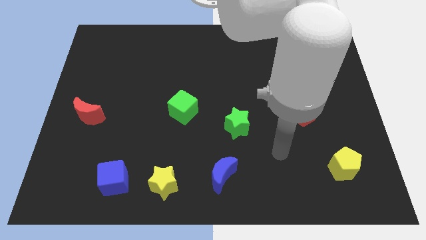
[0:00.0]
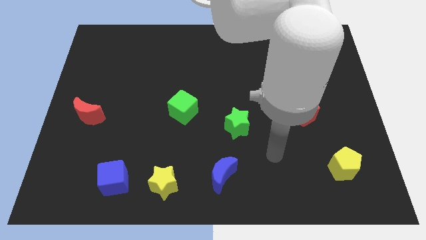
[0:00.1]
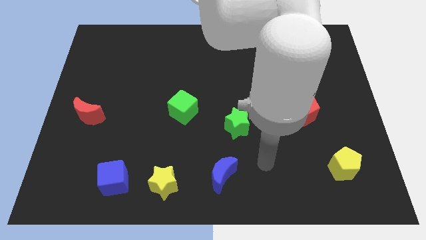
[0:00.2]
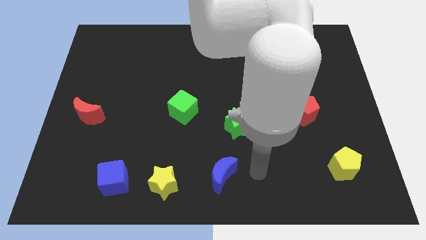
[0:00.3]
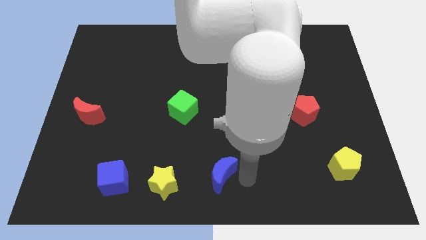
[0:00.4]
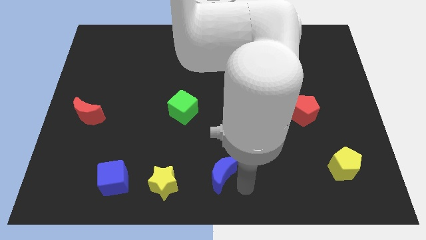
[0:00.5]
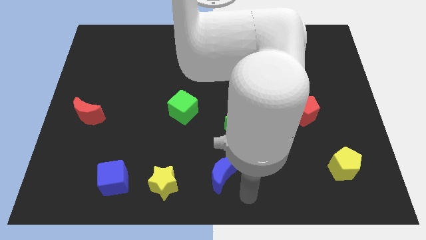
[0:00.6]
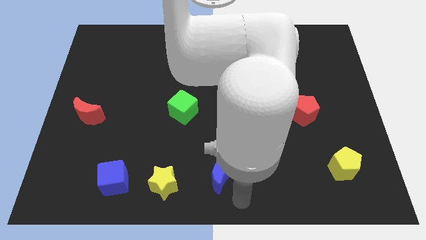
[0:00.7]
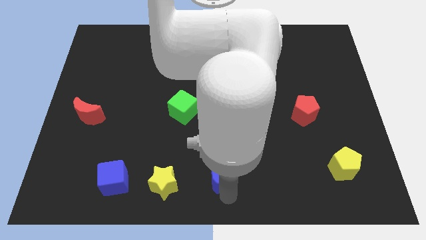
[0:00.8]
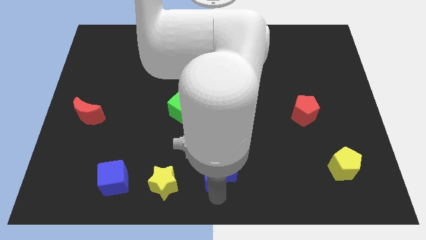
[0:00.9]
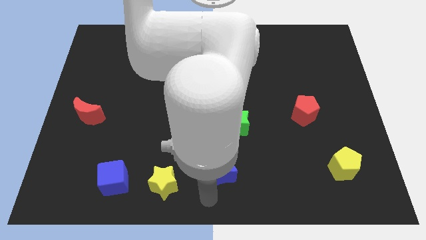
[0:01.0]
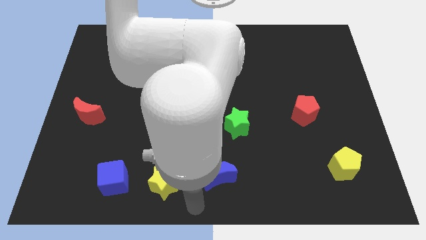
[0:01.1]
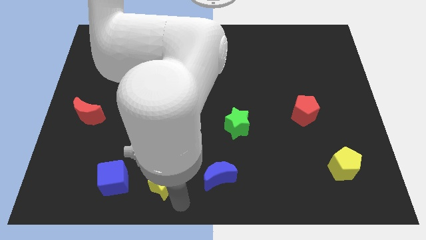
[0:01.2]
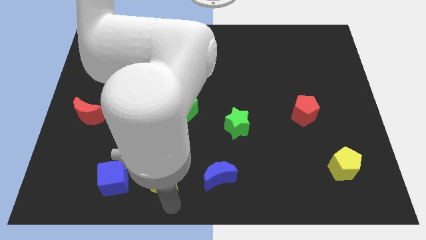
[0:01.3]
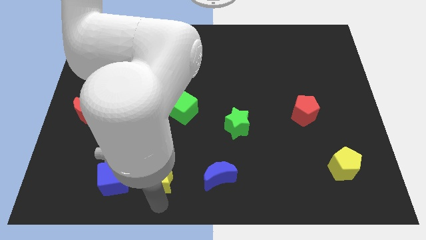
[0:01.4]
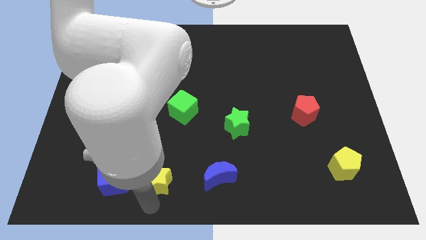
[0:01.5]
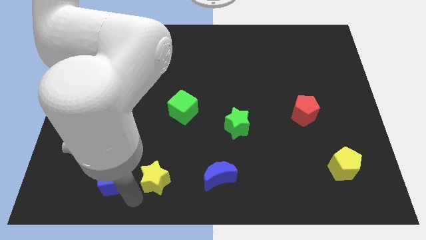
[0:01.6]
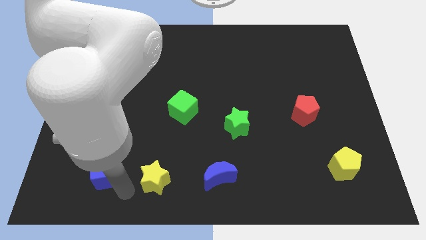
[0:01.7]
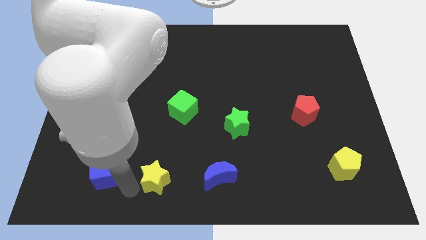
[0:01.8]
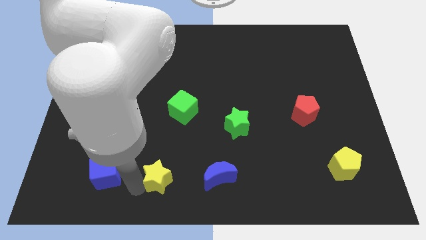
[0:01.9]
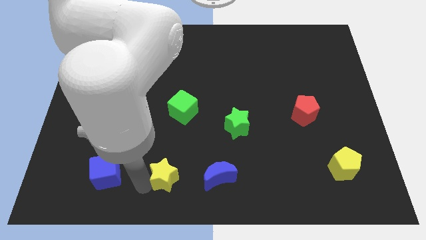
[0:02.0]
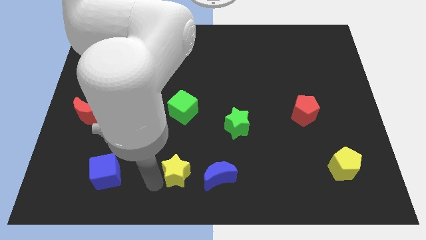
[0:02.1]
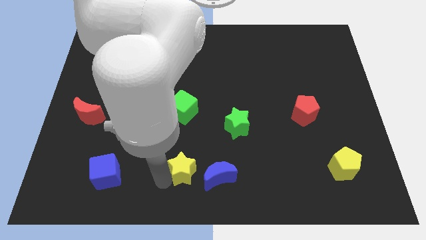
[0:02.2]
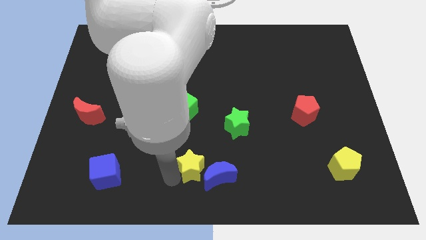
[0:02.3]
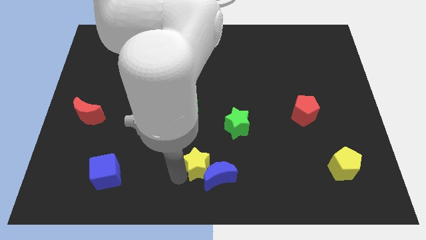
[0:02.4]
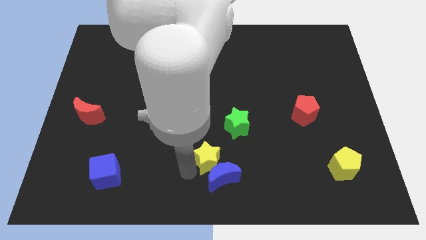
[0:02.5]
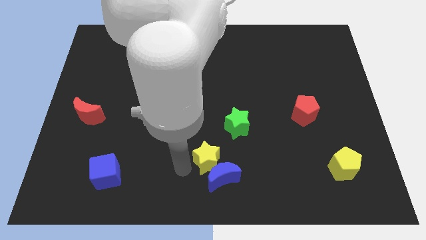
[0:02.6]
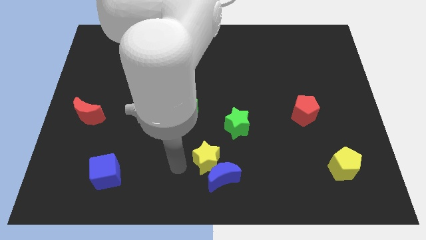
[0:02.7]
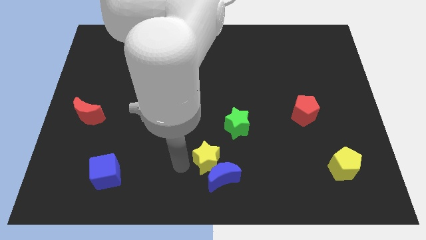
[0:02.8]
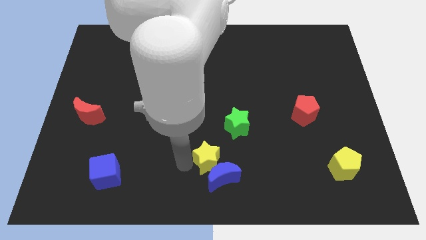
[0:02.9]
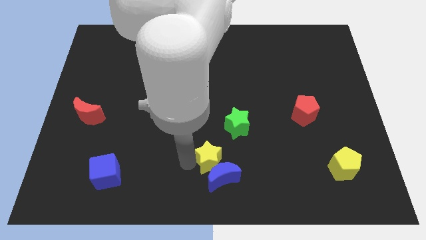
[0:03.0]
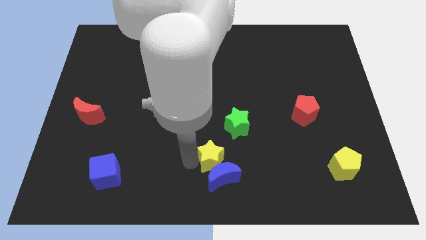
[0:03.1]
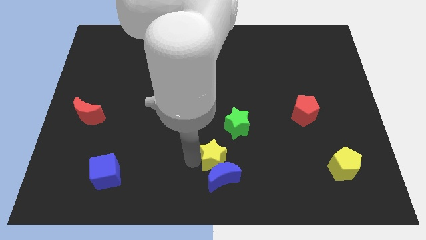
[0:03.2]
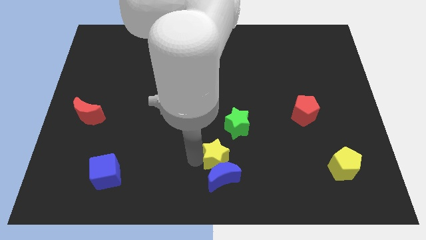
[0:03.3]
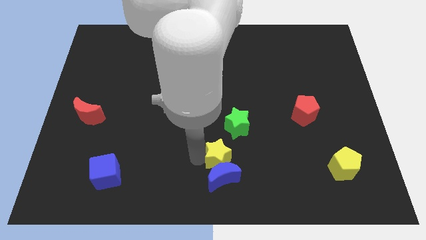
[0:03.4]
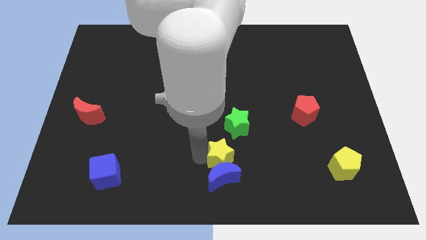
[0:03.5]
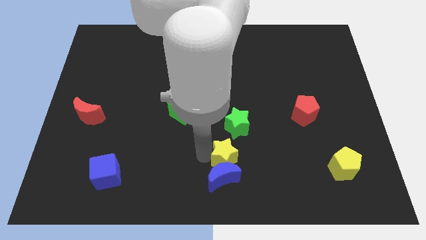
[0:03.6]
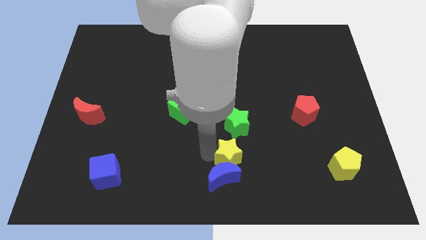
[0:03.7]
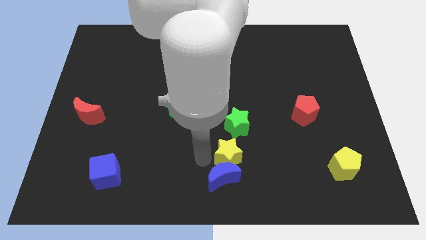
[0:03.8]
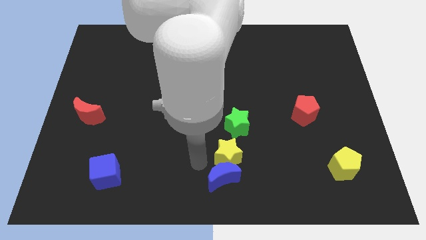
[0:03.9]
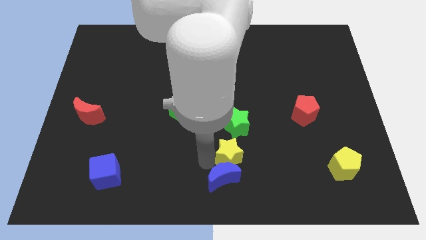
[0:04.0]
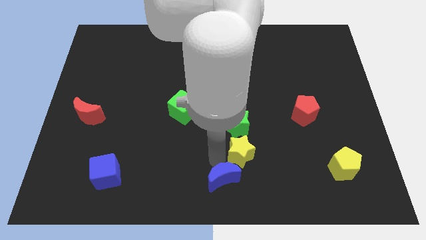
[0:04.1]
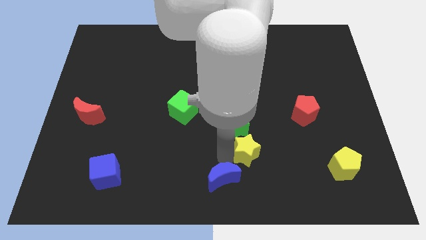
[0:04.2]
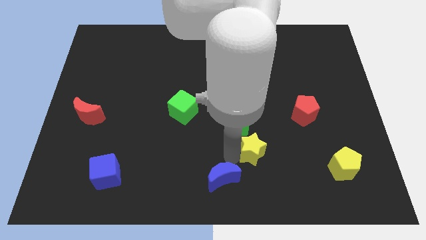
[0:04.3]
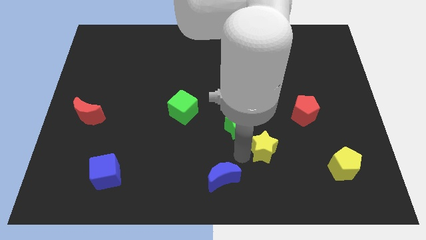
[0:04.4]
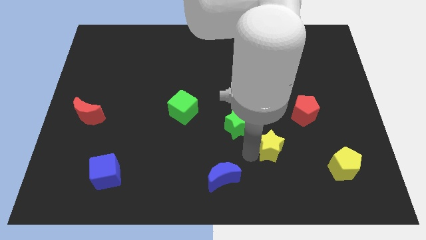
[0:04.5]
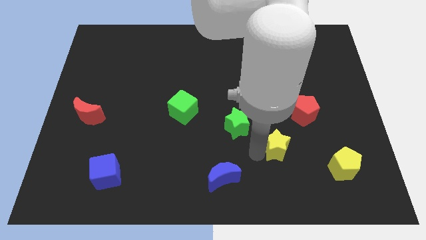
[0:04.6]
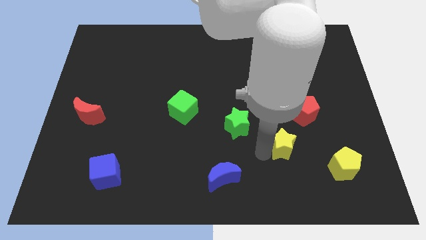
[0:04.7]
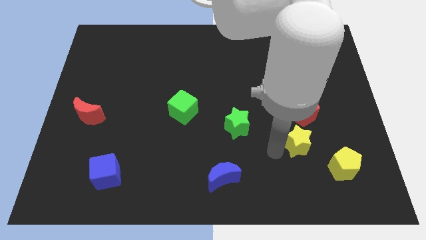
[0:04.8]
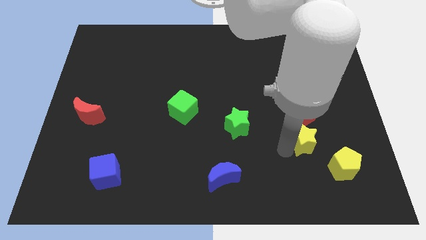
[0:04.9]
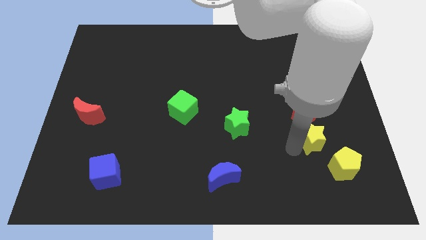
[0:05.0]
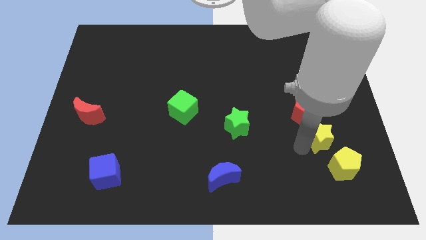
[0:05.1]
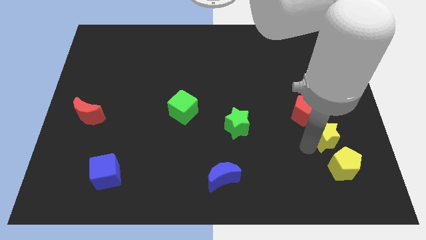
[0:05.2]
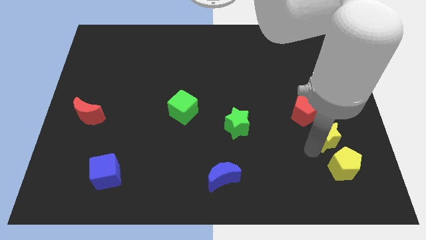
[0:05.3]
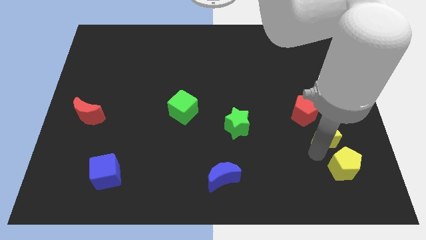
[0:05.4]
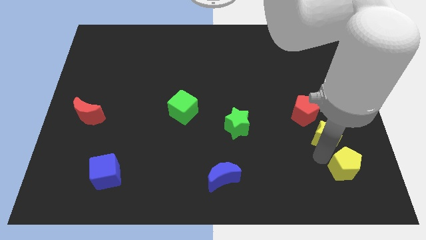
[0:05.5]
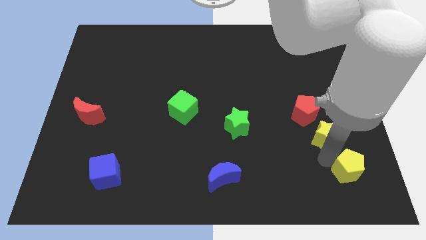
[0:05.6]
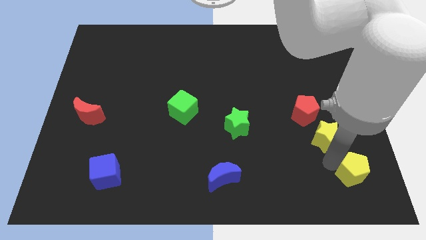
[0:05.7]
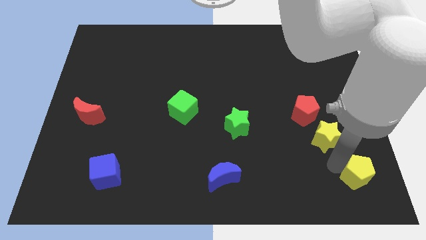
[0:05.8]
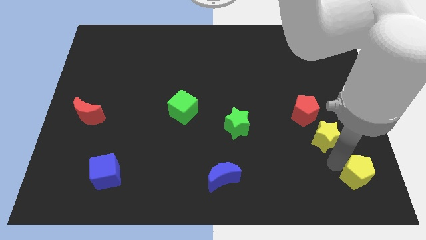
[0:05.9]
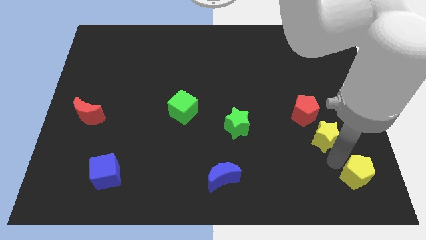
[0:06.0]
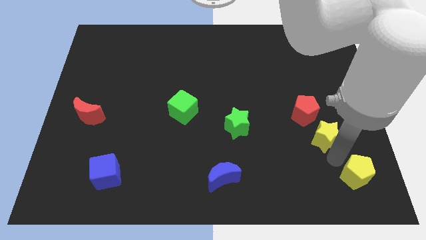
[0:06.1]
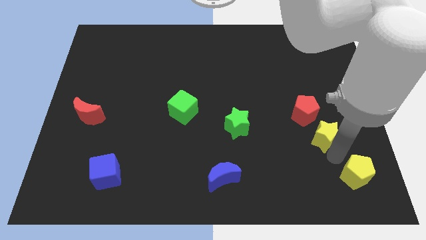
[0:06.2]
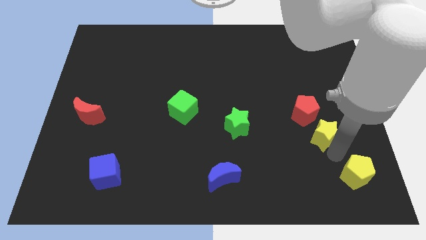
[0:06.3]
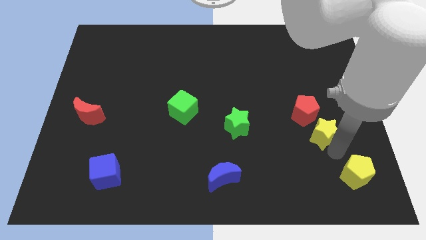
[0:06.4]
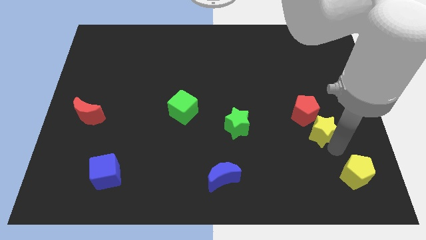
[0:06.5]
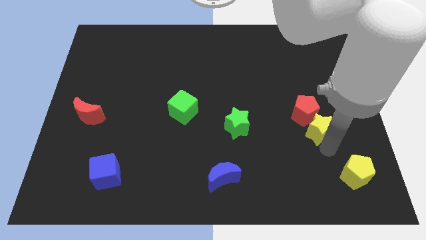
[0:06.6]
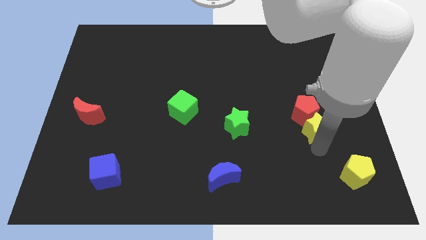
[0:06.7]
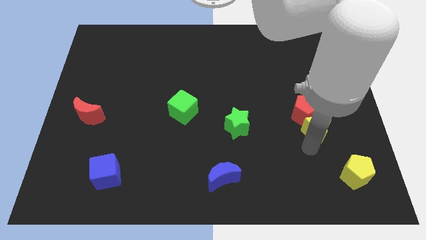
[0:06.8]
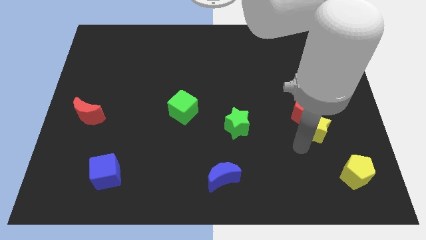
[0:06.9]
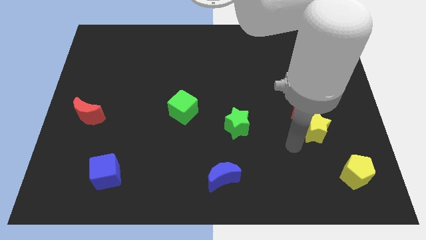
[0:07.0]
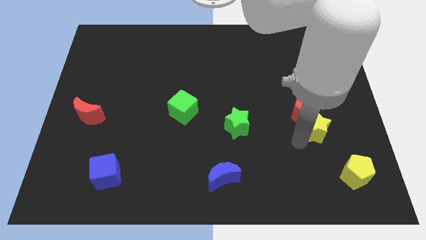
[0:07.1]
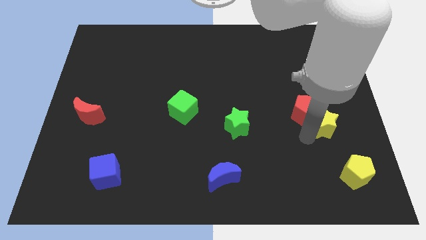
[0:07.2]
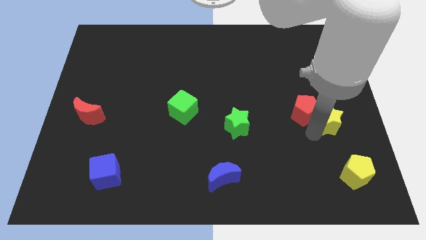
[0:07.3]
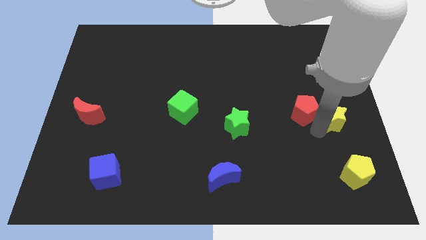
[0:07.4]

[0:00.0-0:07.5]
put the yellow star to the right side

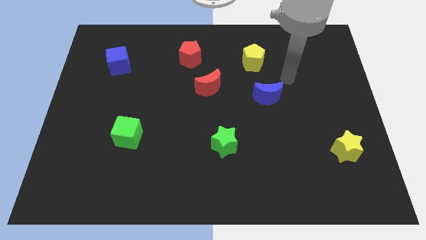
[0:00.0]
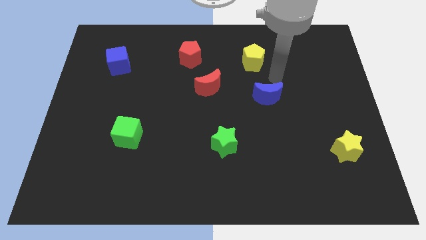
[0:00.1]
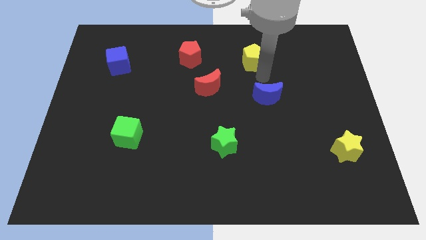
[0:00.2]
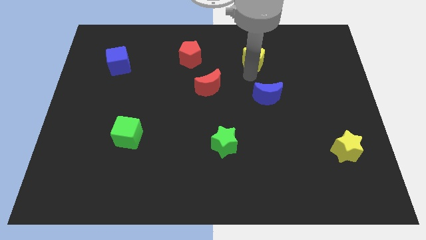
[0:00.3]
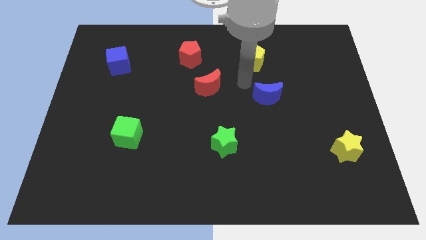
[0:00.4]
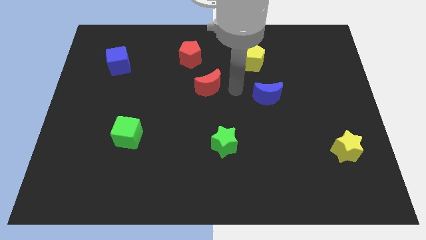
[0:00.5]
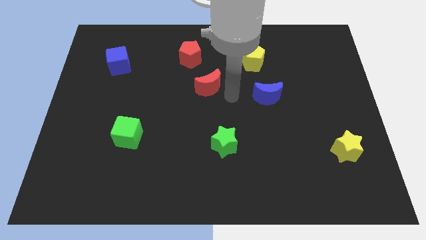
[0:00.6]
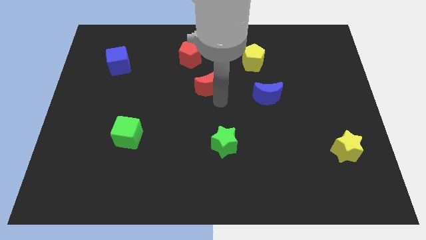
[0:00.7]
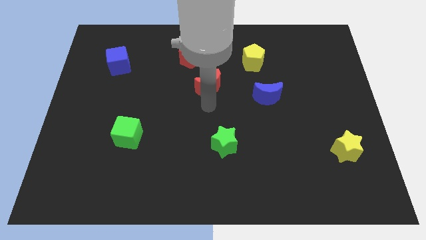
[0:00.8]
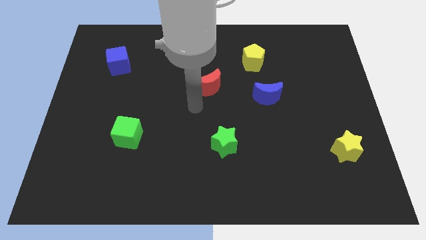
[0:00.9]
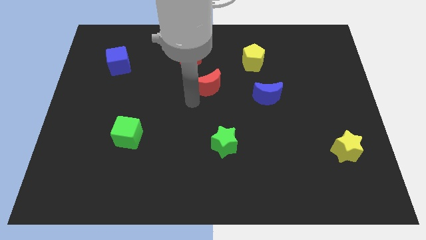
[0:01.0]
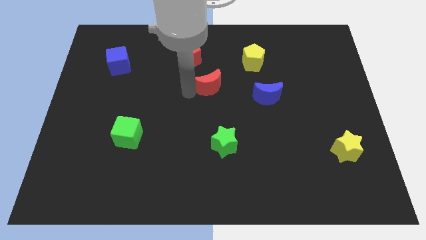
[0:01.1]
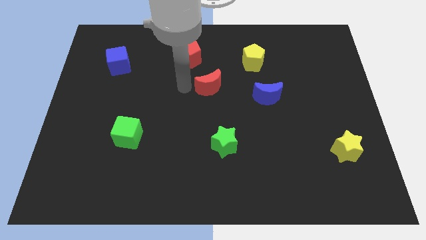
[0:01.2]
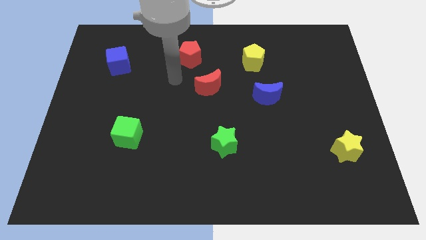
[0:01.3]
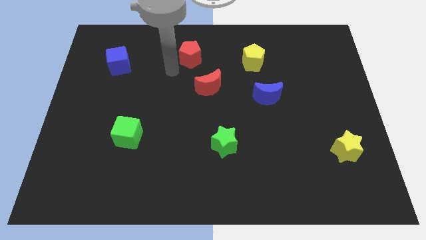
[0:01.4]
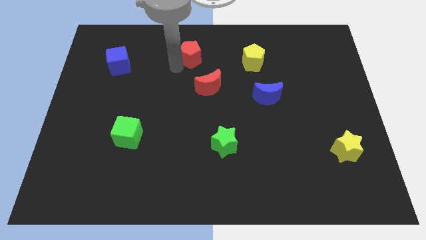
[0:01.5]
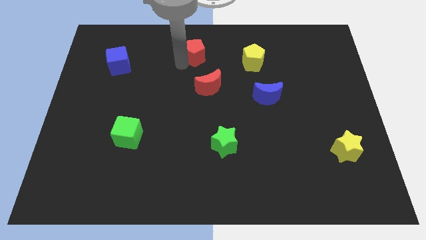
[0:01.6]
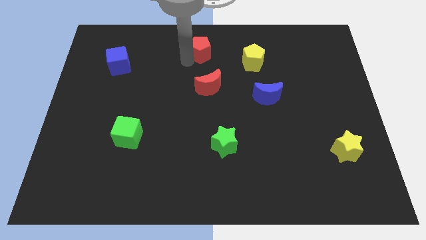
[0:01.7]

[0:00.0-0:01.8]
put the red pentagon to the towards your base
